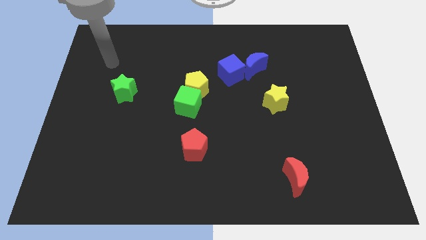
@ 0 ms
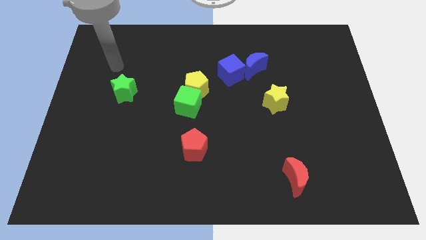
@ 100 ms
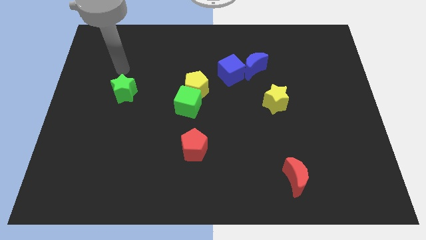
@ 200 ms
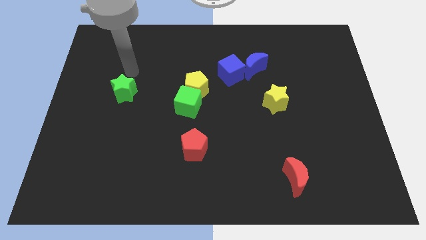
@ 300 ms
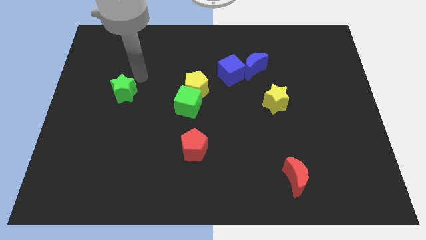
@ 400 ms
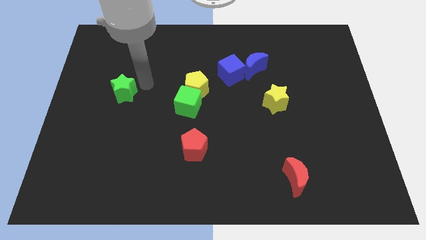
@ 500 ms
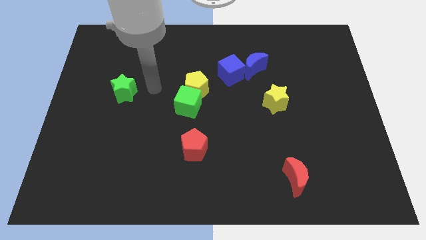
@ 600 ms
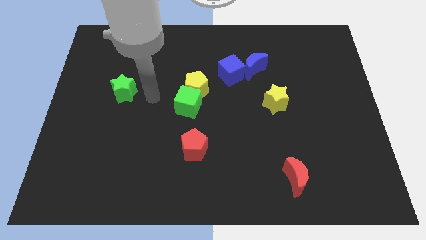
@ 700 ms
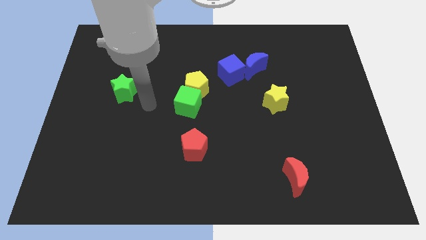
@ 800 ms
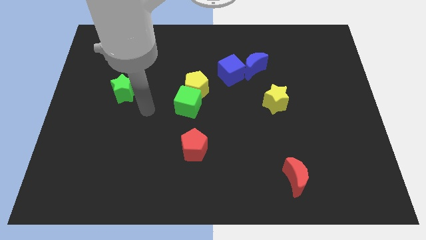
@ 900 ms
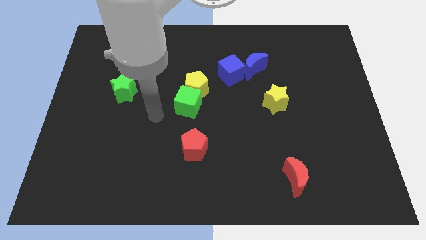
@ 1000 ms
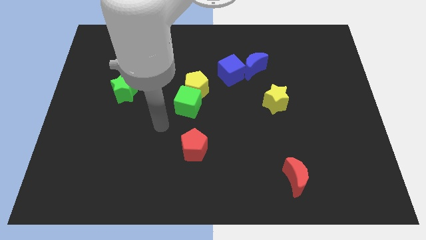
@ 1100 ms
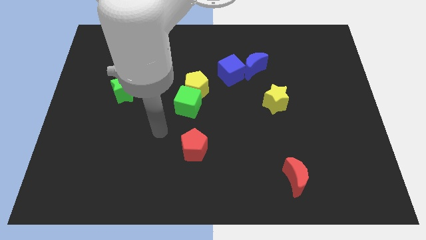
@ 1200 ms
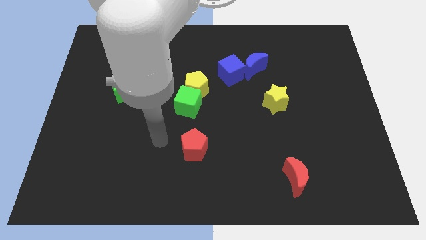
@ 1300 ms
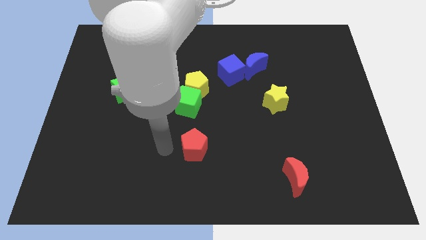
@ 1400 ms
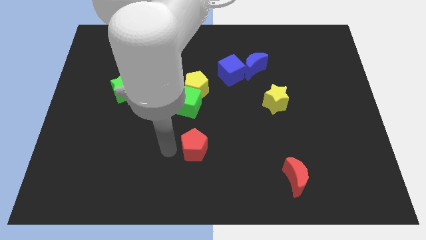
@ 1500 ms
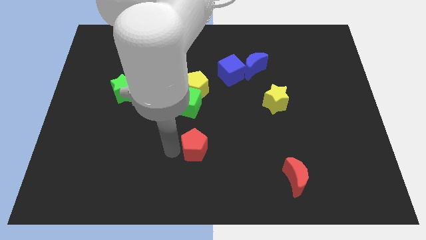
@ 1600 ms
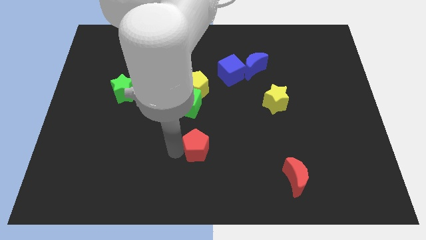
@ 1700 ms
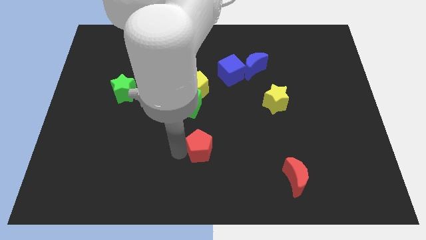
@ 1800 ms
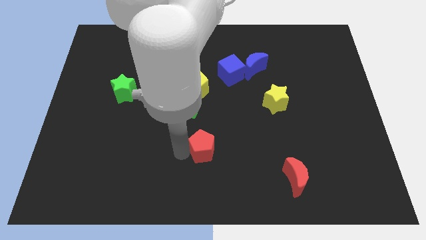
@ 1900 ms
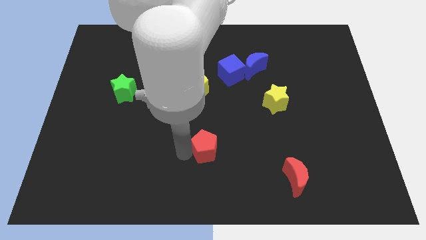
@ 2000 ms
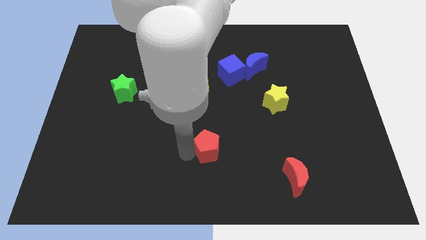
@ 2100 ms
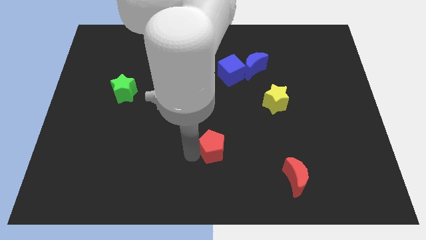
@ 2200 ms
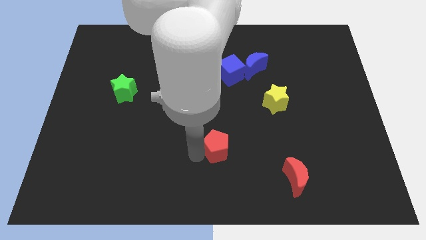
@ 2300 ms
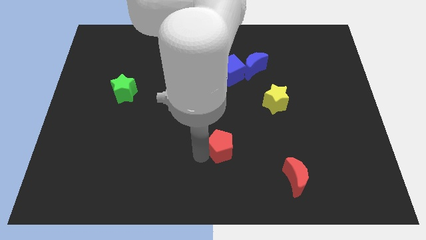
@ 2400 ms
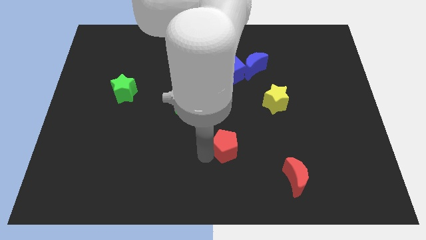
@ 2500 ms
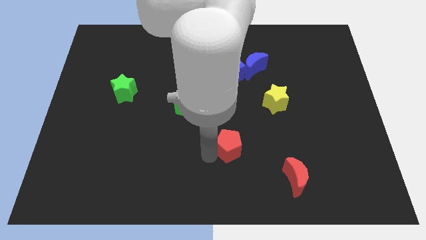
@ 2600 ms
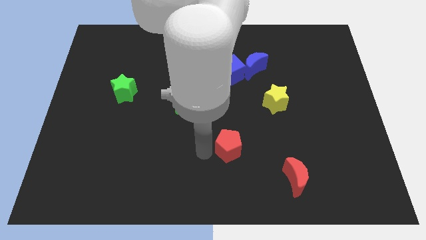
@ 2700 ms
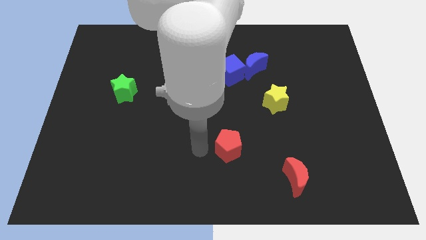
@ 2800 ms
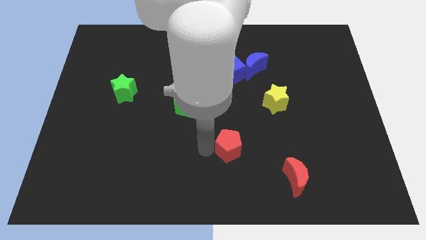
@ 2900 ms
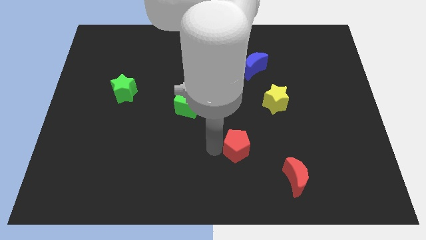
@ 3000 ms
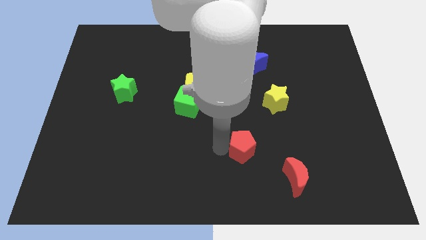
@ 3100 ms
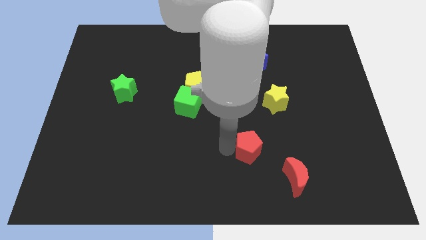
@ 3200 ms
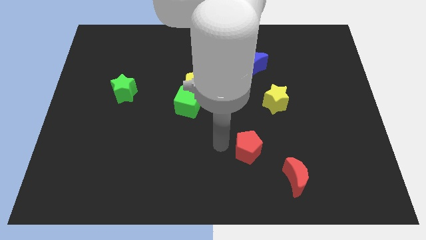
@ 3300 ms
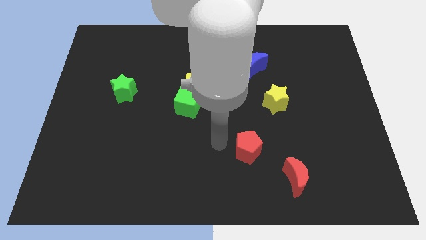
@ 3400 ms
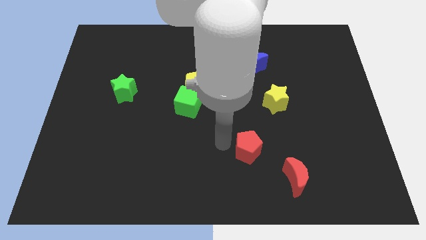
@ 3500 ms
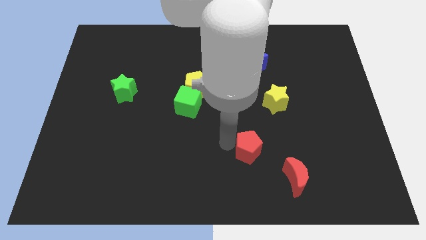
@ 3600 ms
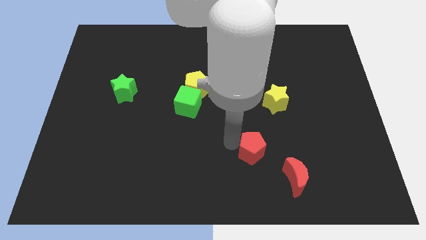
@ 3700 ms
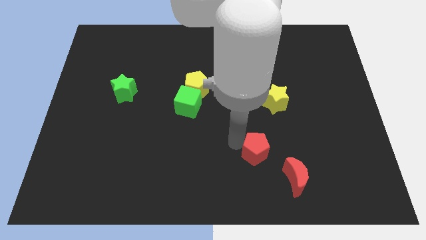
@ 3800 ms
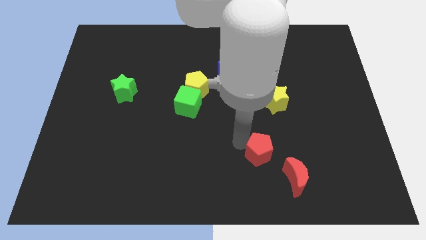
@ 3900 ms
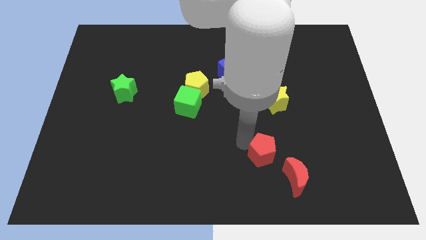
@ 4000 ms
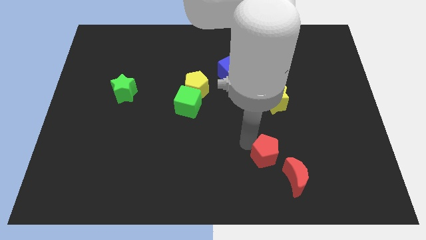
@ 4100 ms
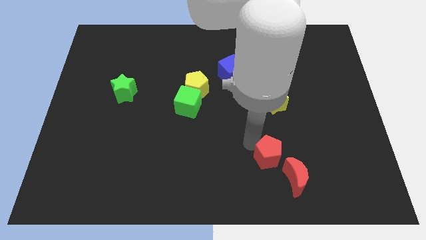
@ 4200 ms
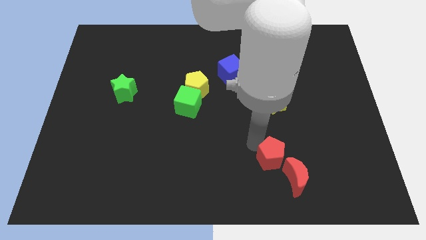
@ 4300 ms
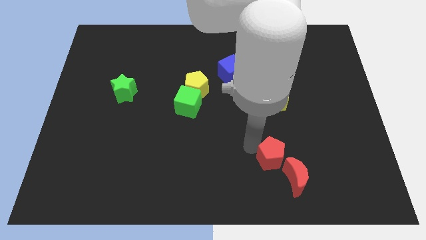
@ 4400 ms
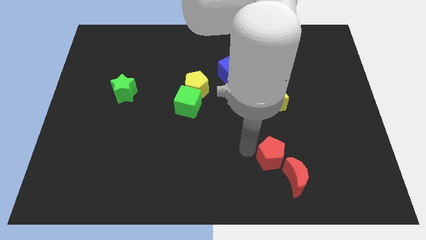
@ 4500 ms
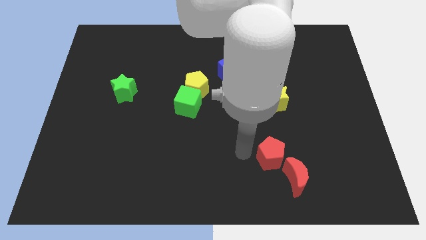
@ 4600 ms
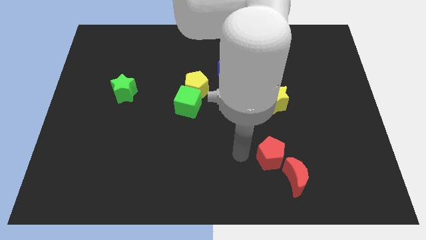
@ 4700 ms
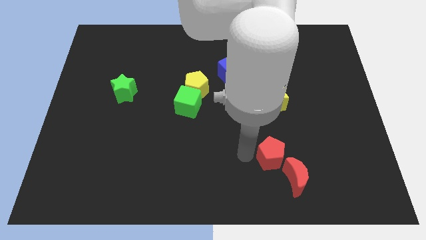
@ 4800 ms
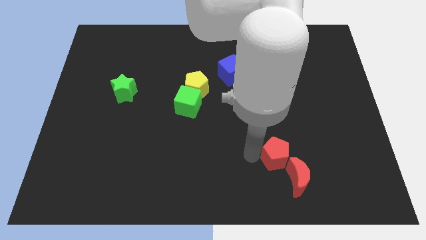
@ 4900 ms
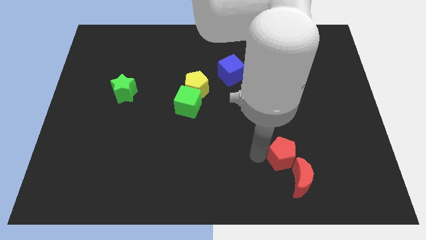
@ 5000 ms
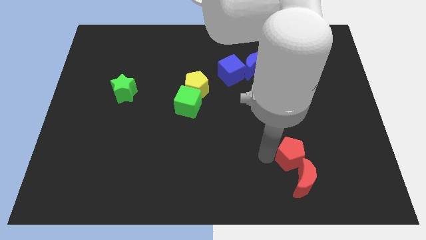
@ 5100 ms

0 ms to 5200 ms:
slide the red pentagon to the right

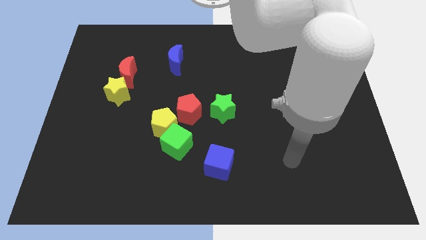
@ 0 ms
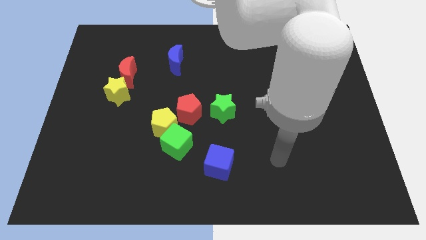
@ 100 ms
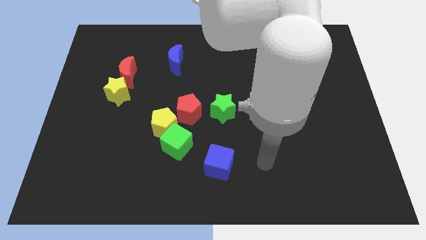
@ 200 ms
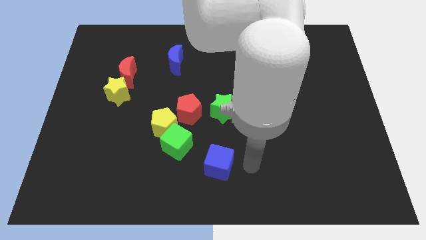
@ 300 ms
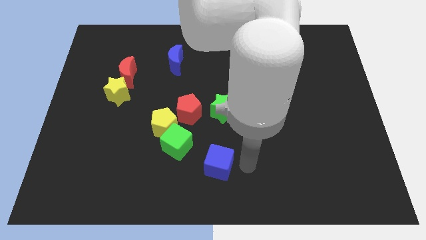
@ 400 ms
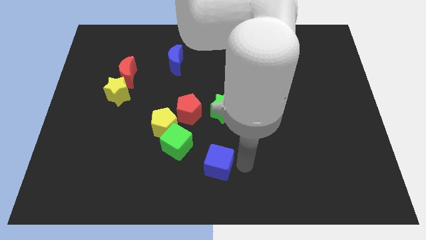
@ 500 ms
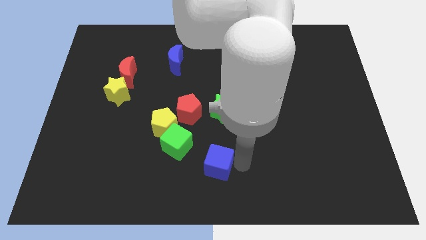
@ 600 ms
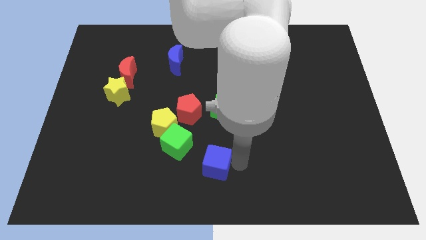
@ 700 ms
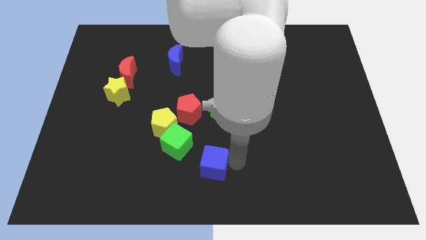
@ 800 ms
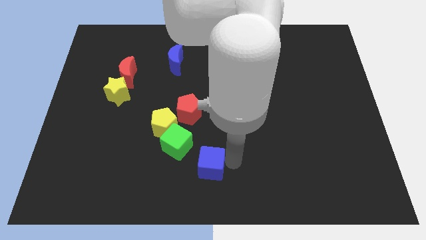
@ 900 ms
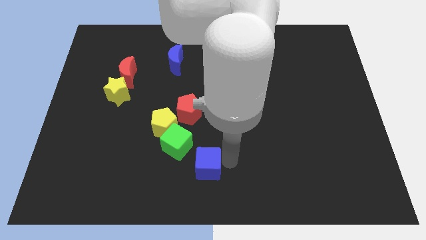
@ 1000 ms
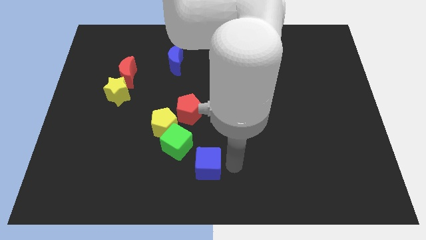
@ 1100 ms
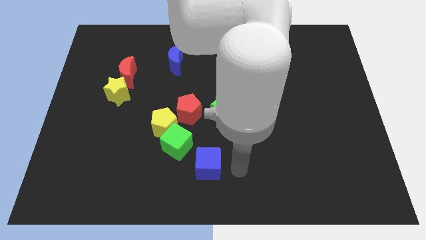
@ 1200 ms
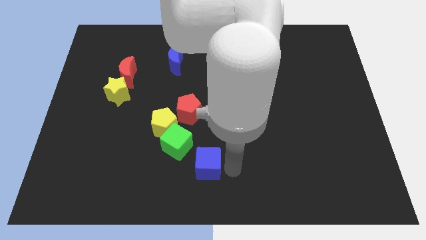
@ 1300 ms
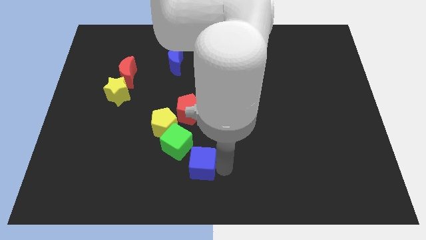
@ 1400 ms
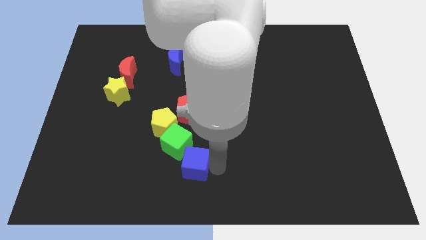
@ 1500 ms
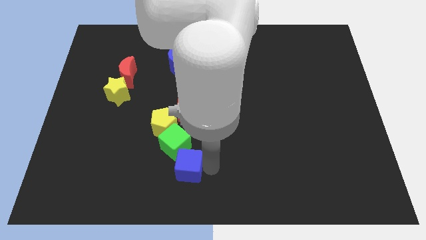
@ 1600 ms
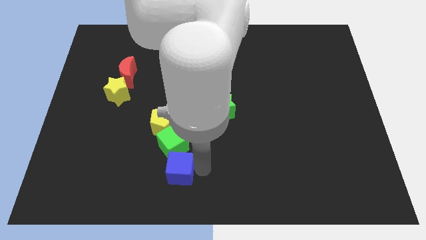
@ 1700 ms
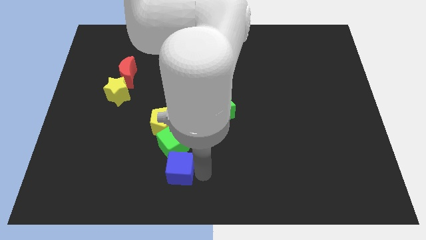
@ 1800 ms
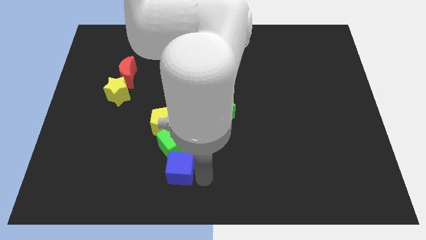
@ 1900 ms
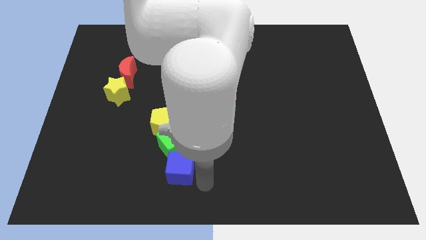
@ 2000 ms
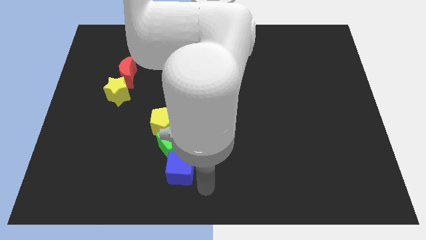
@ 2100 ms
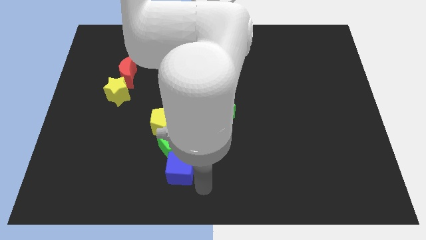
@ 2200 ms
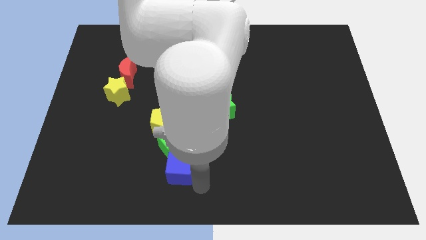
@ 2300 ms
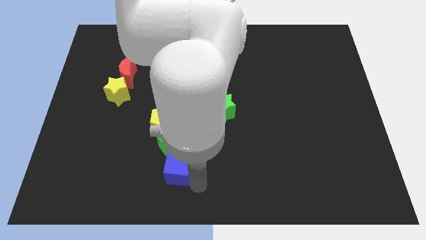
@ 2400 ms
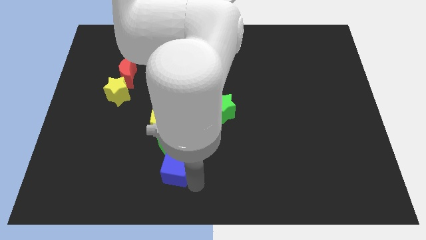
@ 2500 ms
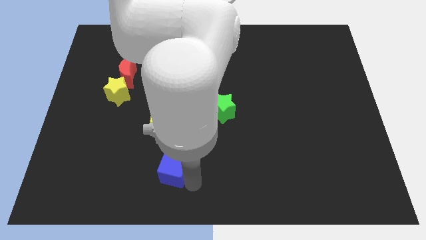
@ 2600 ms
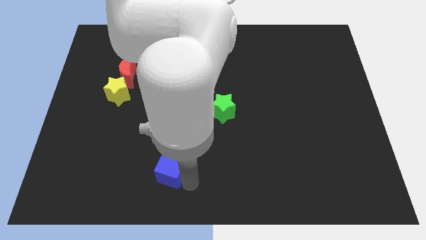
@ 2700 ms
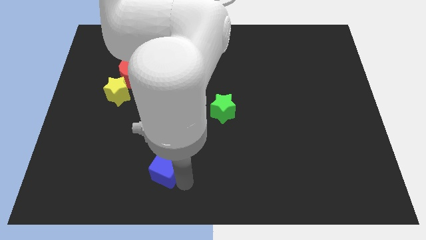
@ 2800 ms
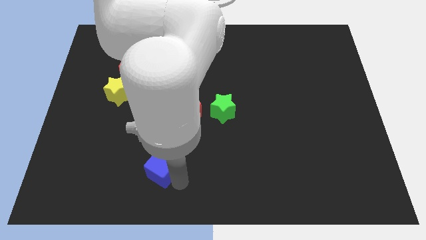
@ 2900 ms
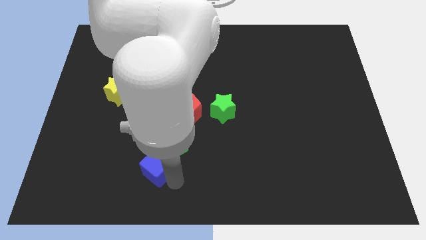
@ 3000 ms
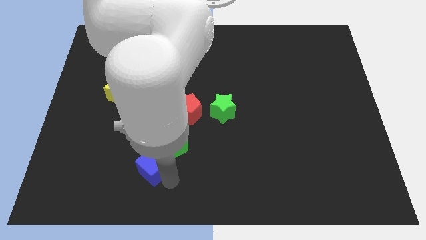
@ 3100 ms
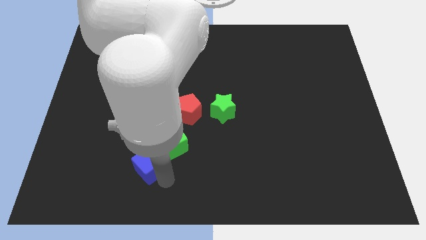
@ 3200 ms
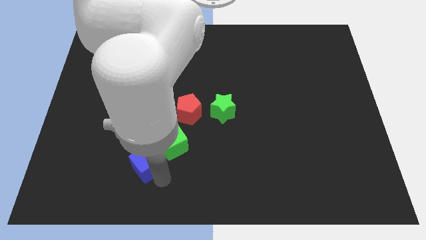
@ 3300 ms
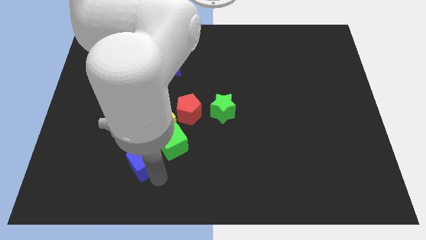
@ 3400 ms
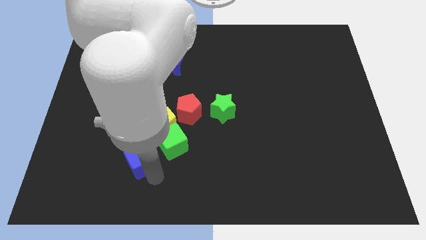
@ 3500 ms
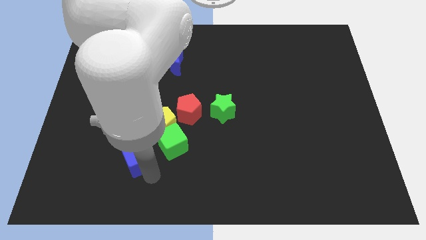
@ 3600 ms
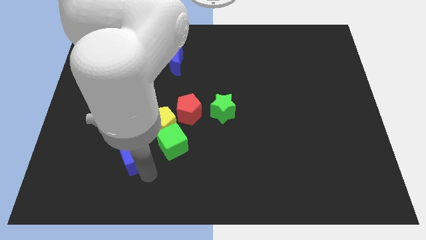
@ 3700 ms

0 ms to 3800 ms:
slightly slide the blue cube up and to the left
